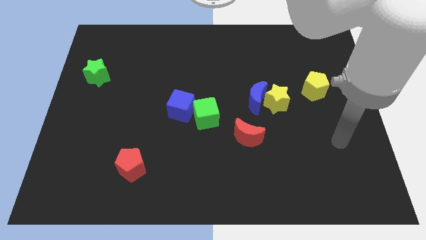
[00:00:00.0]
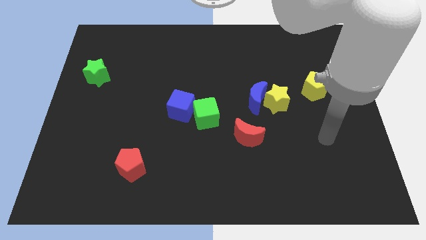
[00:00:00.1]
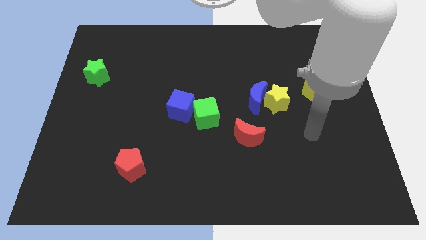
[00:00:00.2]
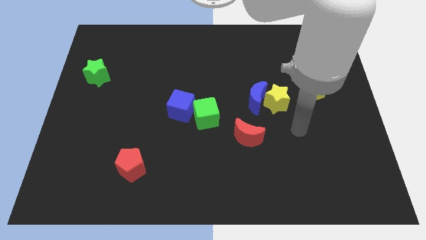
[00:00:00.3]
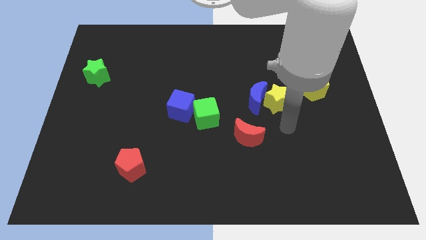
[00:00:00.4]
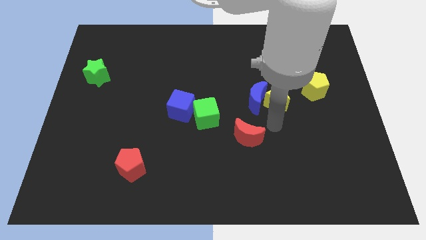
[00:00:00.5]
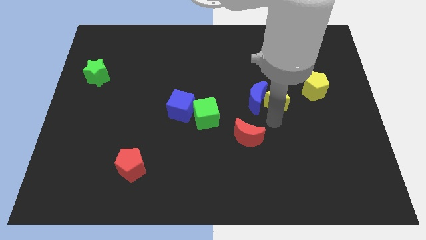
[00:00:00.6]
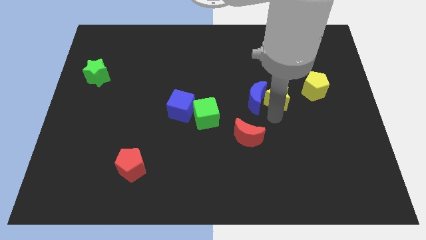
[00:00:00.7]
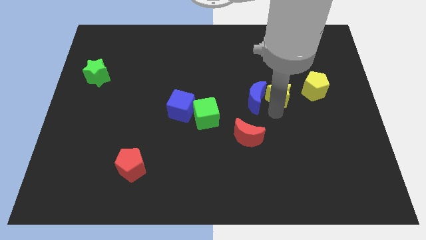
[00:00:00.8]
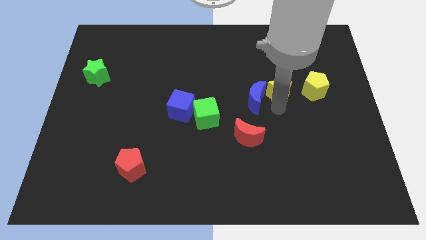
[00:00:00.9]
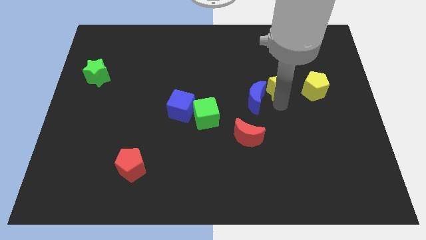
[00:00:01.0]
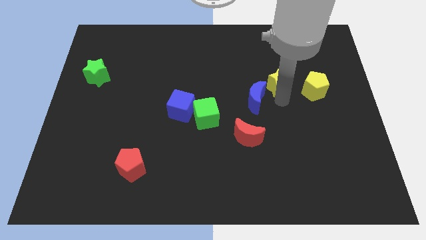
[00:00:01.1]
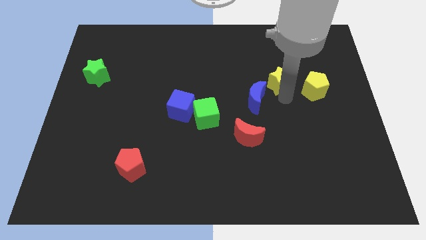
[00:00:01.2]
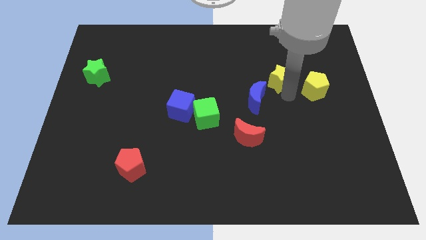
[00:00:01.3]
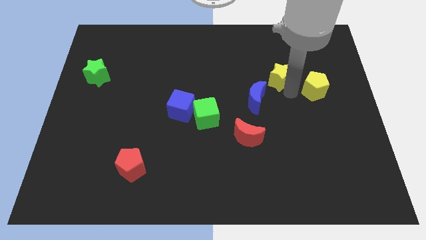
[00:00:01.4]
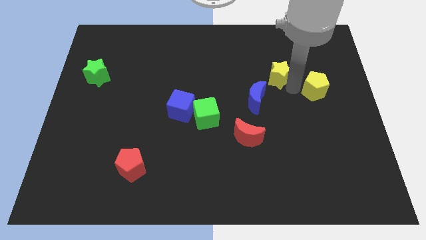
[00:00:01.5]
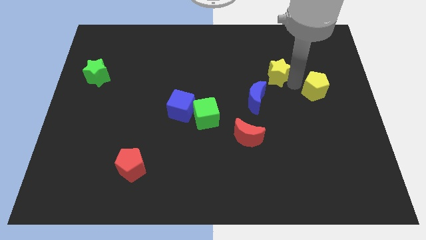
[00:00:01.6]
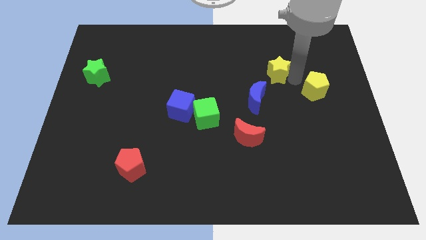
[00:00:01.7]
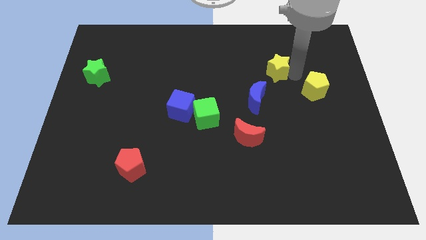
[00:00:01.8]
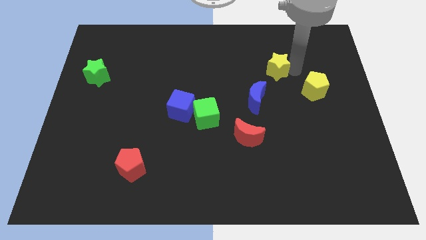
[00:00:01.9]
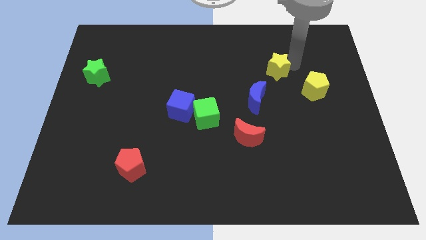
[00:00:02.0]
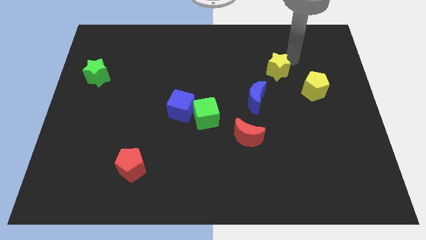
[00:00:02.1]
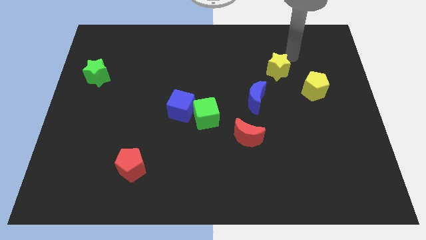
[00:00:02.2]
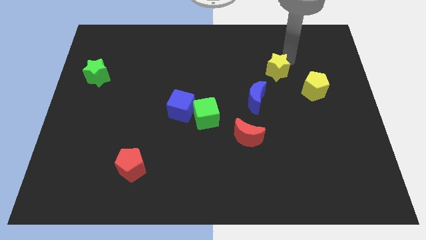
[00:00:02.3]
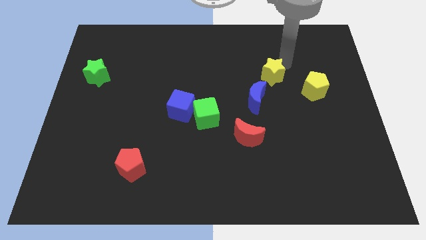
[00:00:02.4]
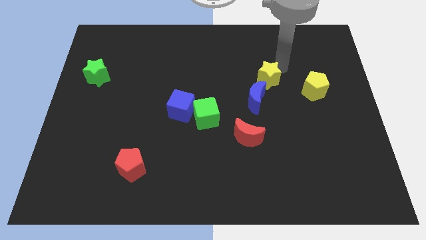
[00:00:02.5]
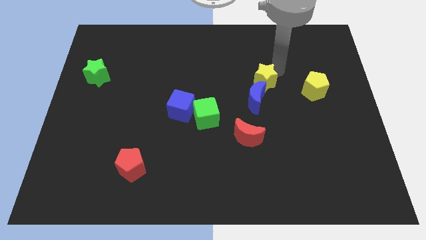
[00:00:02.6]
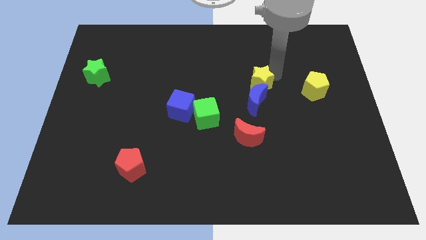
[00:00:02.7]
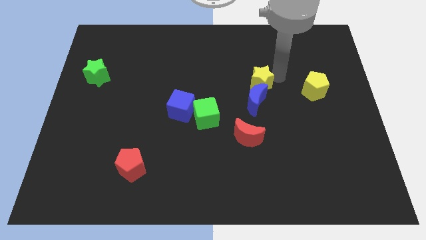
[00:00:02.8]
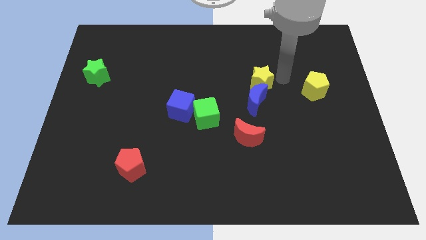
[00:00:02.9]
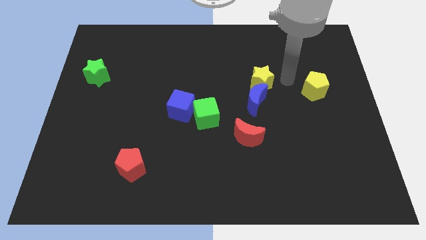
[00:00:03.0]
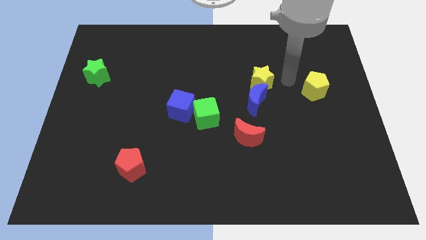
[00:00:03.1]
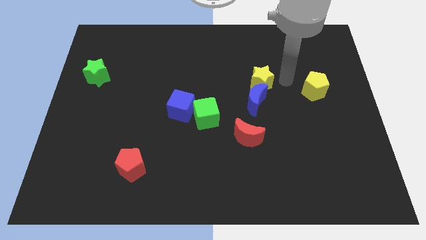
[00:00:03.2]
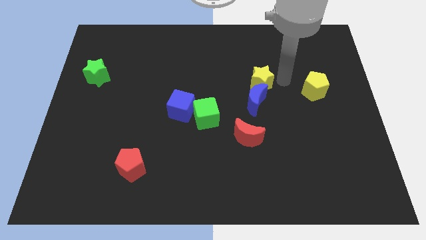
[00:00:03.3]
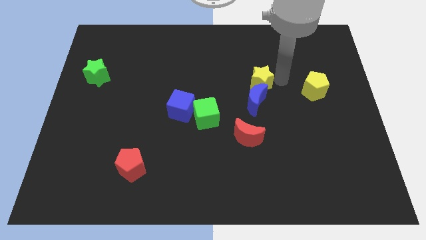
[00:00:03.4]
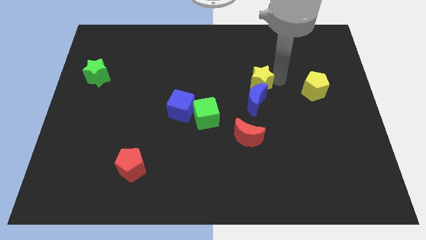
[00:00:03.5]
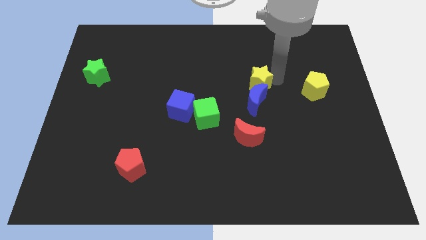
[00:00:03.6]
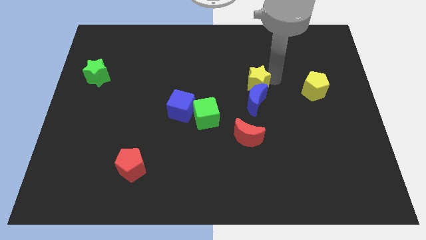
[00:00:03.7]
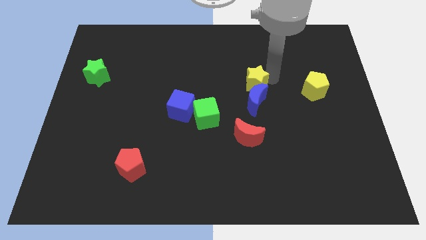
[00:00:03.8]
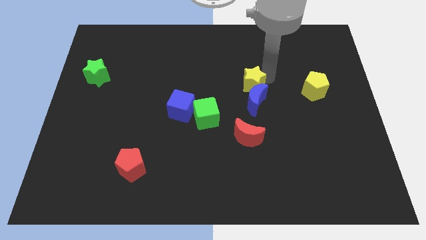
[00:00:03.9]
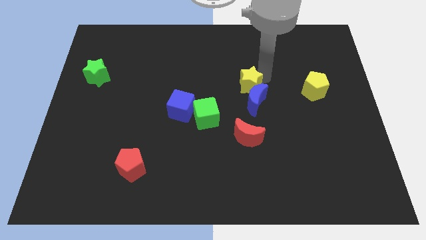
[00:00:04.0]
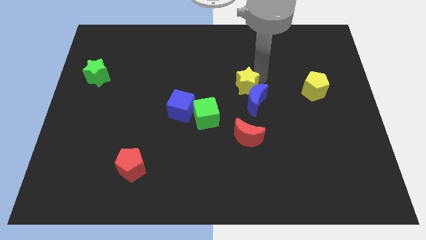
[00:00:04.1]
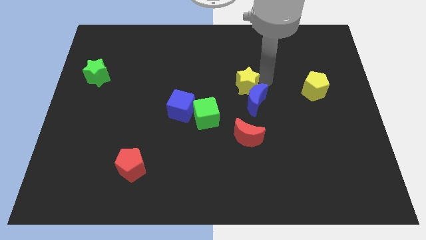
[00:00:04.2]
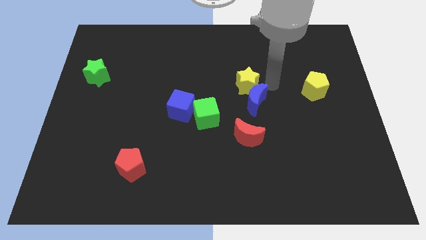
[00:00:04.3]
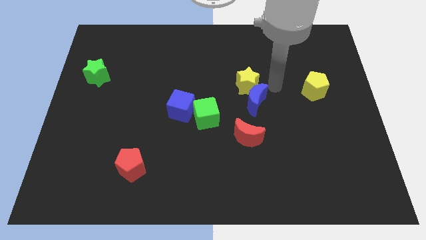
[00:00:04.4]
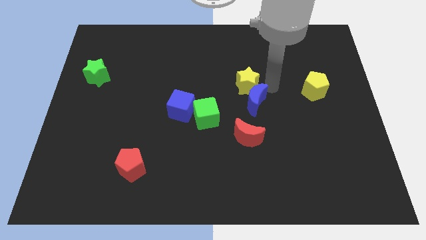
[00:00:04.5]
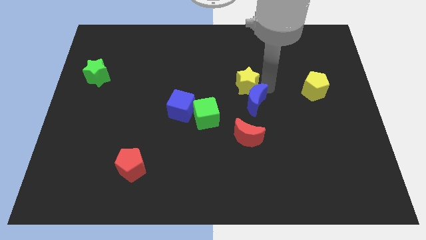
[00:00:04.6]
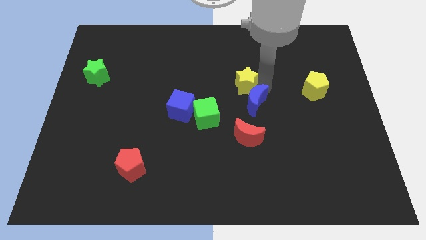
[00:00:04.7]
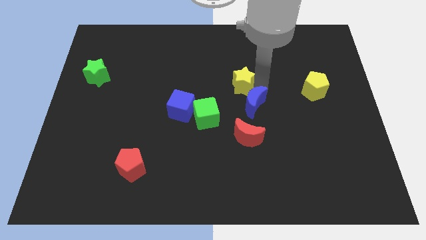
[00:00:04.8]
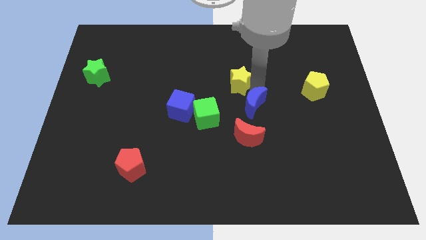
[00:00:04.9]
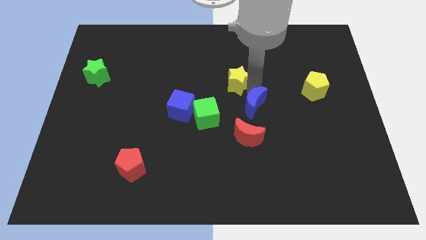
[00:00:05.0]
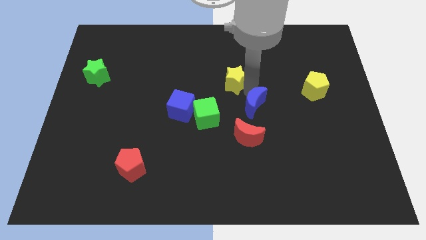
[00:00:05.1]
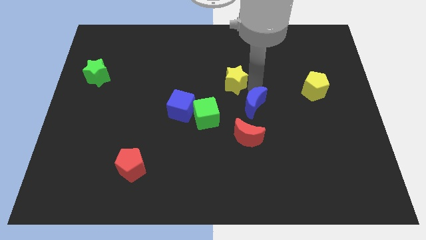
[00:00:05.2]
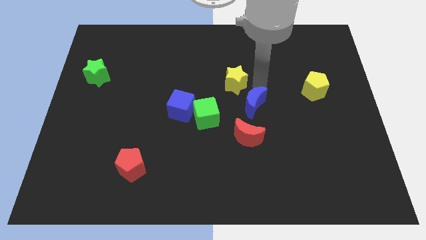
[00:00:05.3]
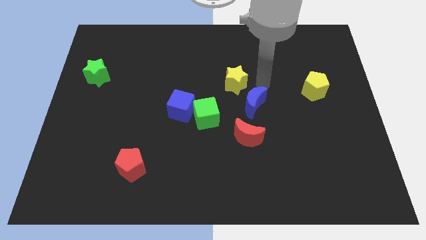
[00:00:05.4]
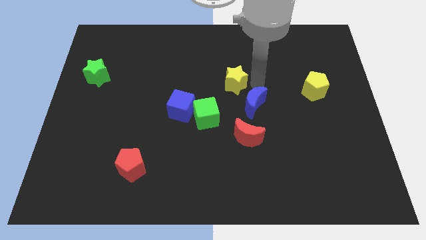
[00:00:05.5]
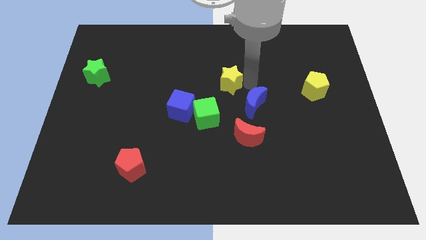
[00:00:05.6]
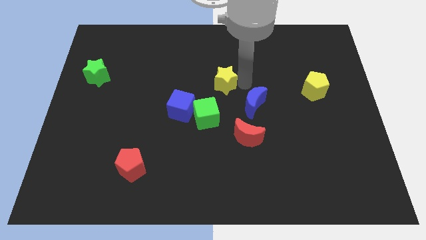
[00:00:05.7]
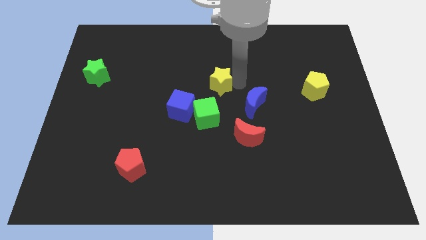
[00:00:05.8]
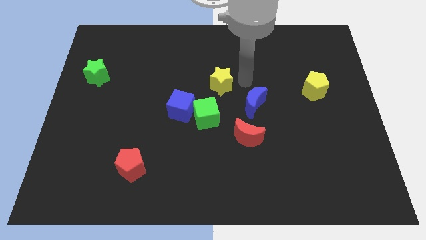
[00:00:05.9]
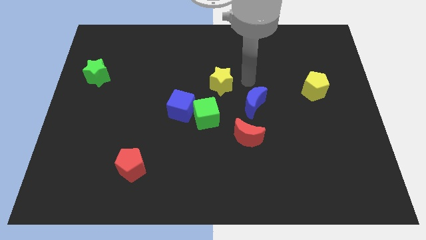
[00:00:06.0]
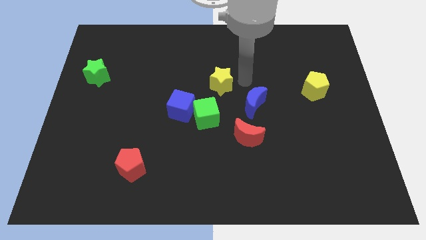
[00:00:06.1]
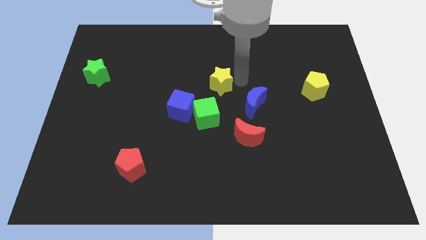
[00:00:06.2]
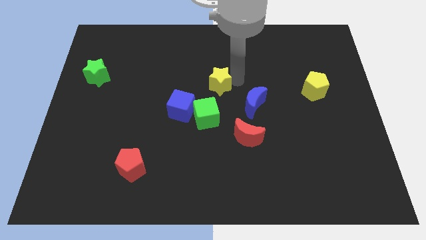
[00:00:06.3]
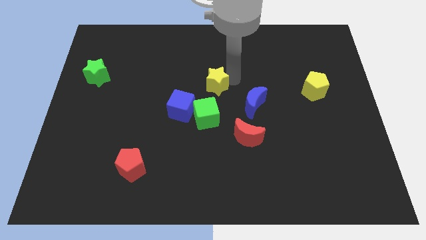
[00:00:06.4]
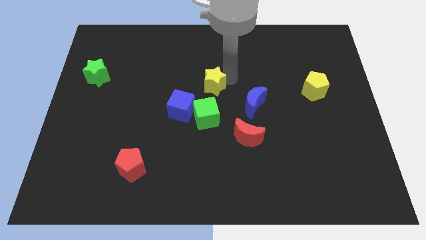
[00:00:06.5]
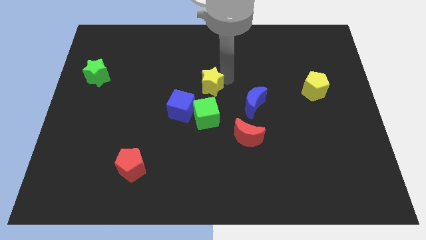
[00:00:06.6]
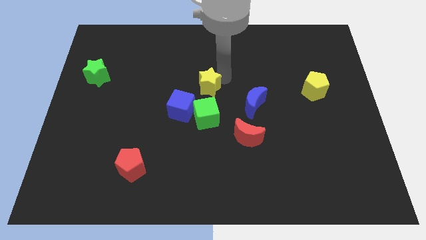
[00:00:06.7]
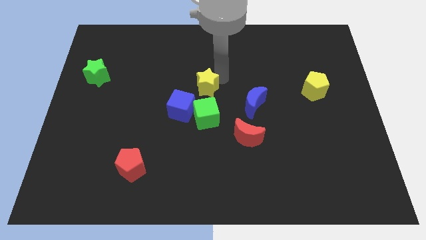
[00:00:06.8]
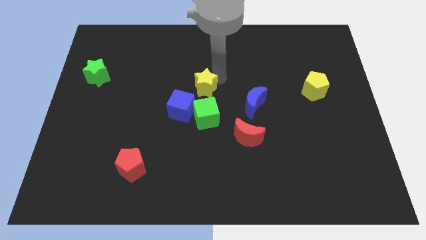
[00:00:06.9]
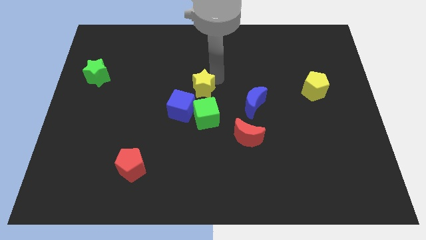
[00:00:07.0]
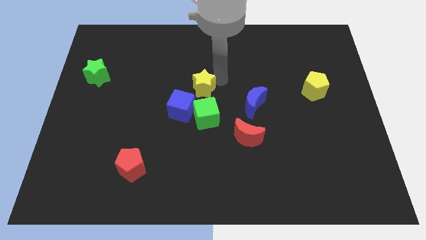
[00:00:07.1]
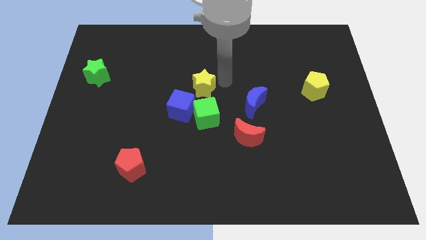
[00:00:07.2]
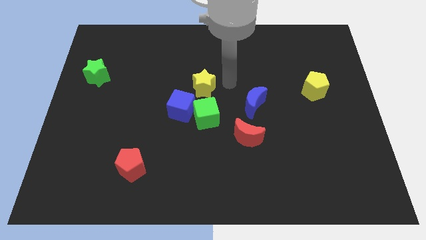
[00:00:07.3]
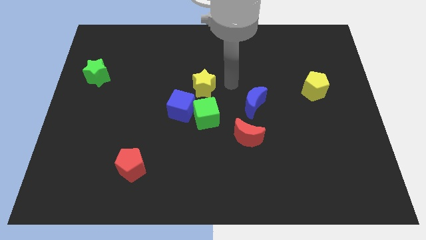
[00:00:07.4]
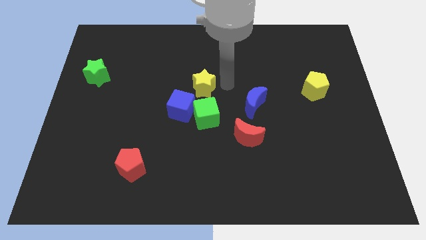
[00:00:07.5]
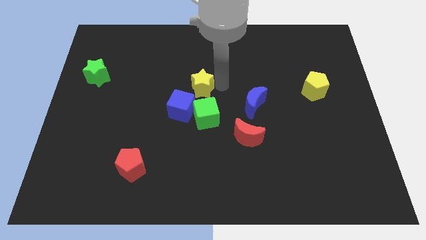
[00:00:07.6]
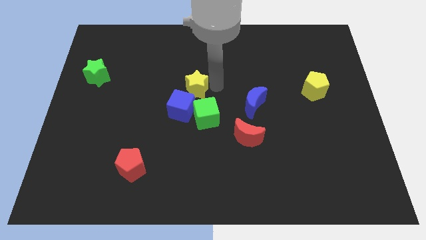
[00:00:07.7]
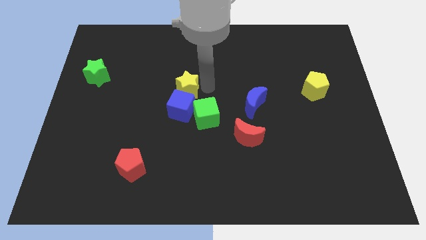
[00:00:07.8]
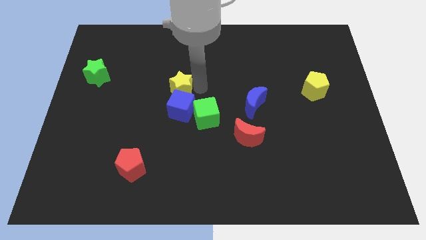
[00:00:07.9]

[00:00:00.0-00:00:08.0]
slide the yellow star to the top left of the blue cube
